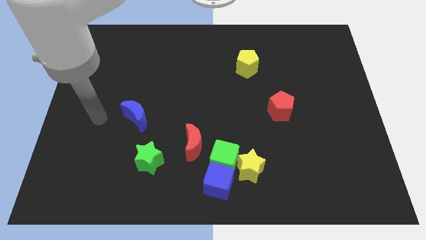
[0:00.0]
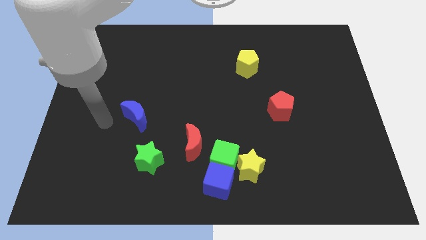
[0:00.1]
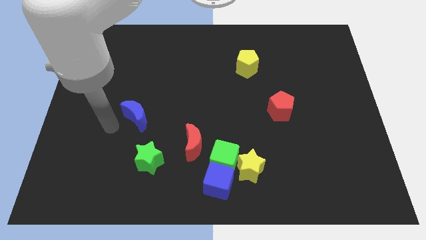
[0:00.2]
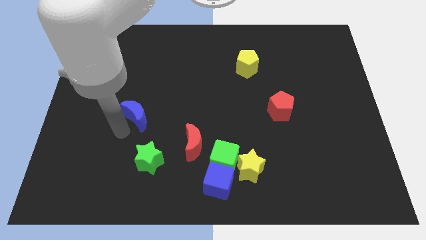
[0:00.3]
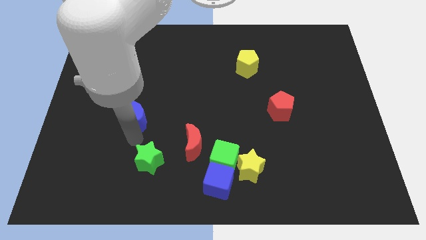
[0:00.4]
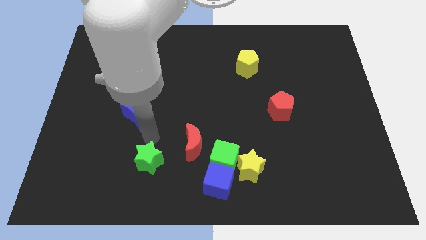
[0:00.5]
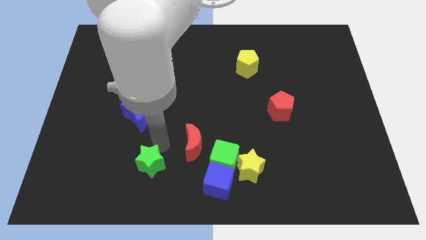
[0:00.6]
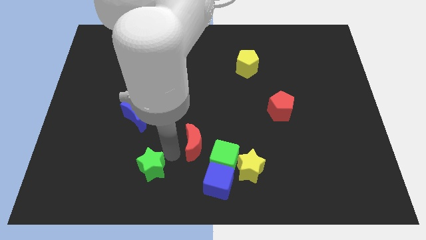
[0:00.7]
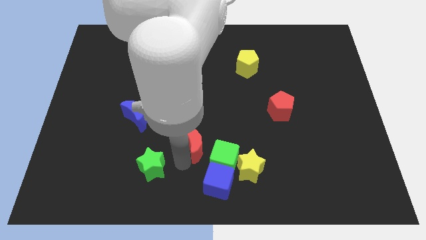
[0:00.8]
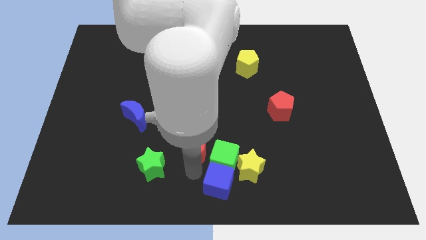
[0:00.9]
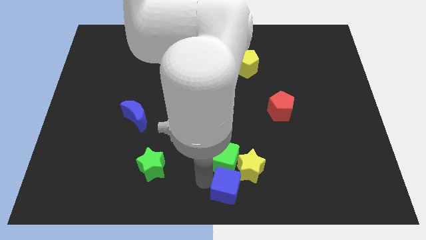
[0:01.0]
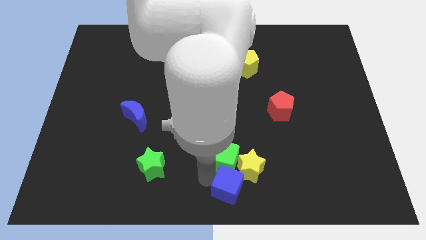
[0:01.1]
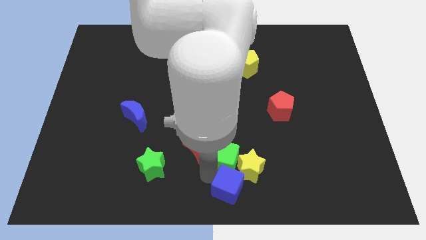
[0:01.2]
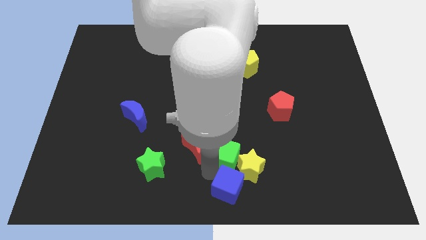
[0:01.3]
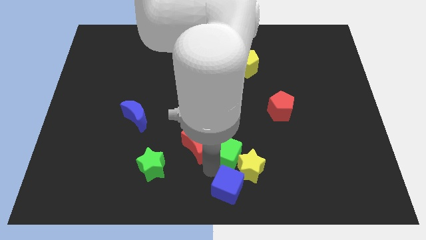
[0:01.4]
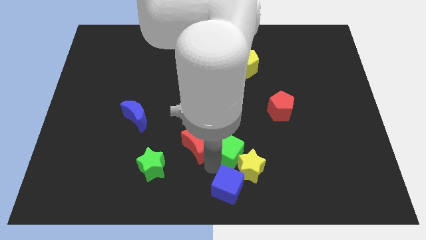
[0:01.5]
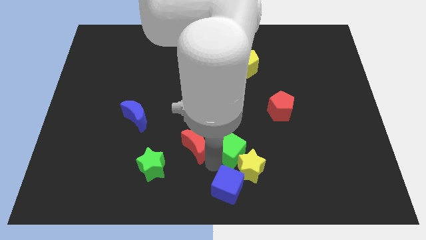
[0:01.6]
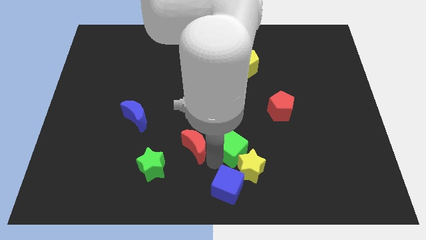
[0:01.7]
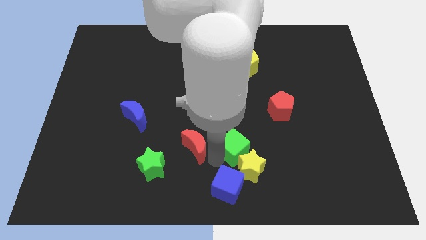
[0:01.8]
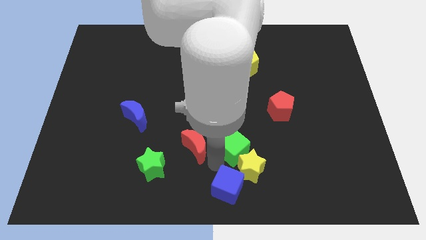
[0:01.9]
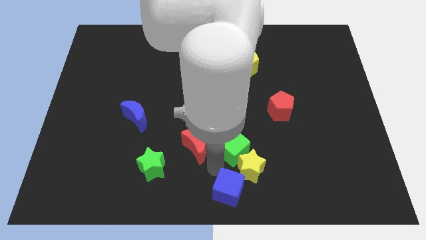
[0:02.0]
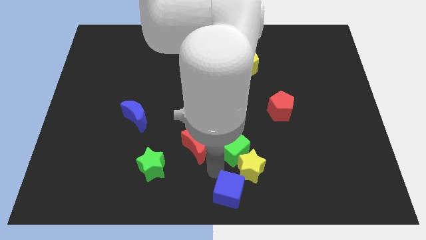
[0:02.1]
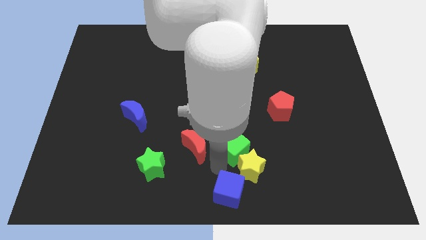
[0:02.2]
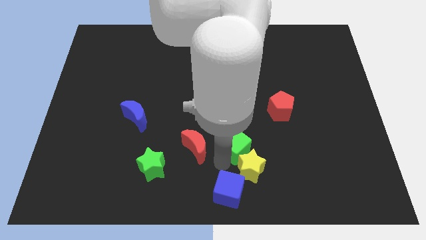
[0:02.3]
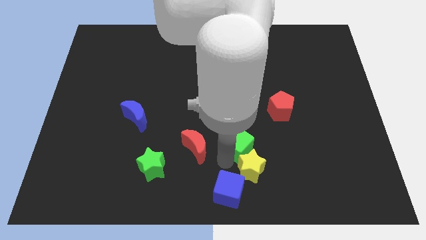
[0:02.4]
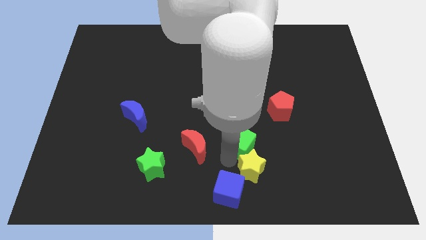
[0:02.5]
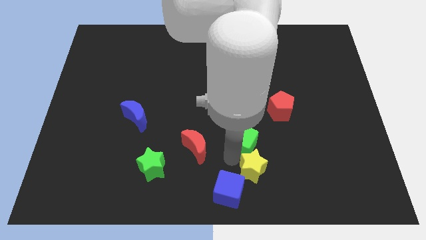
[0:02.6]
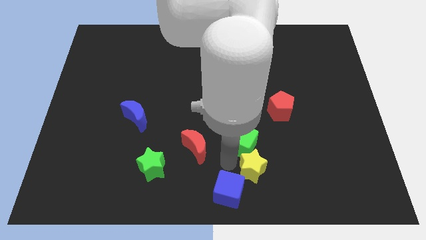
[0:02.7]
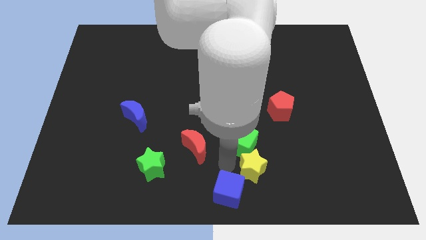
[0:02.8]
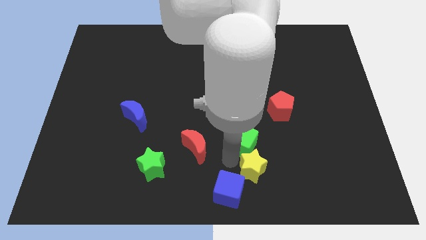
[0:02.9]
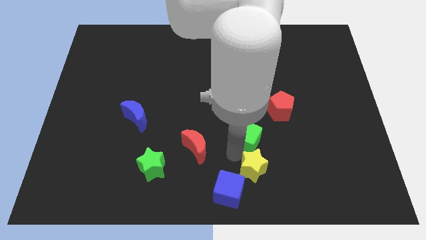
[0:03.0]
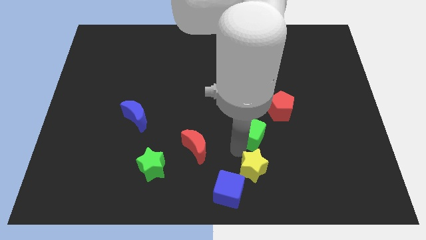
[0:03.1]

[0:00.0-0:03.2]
pull the green cube apart from the blue cube, yellow star, and red moon

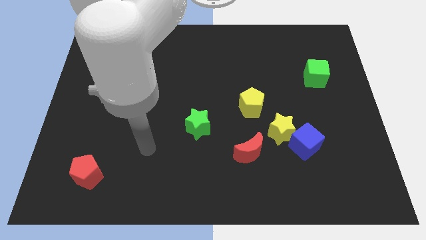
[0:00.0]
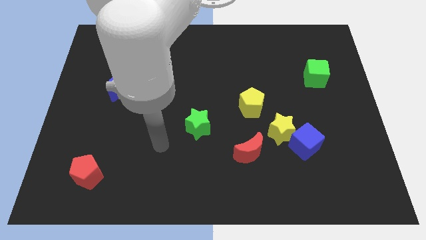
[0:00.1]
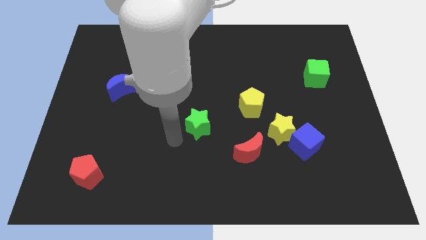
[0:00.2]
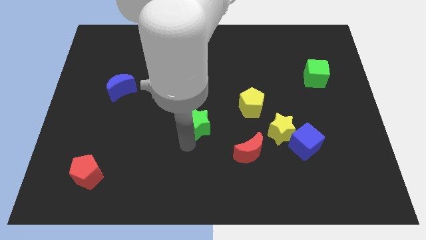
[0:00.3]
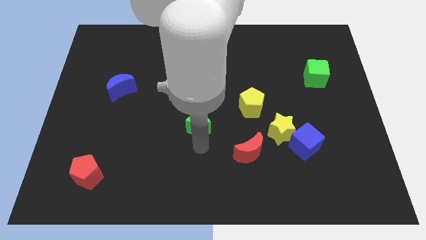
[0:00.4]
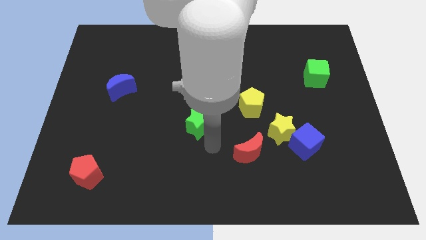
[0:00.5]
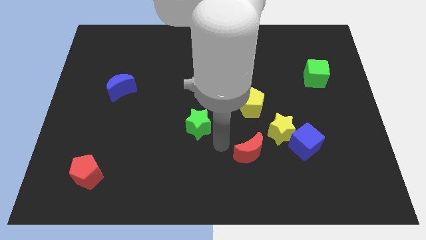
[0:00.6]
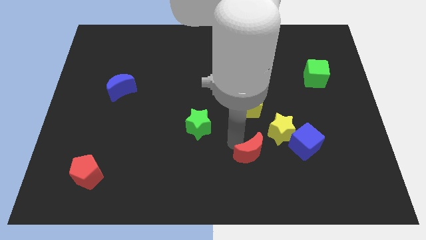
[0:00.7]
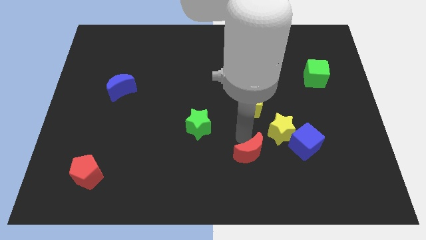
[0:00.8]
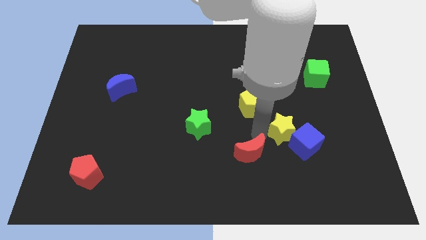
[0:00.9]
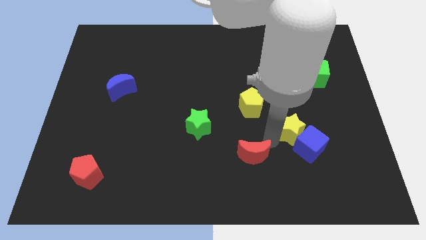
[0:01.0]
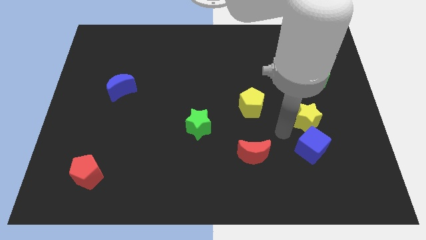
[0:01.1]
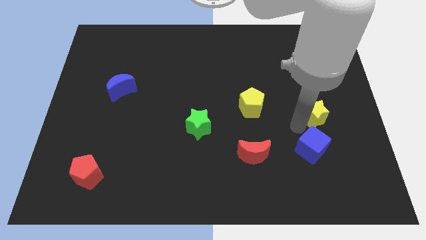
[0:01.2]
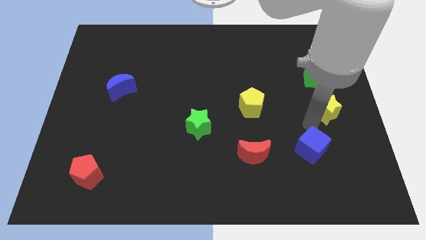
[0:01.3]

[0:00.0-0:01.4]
pull the blue cube apart from the yellow star

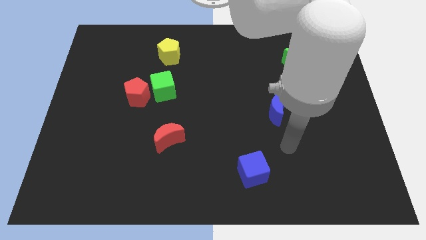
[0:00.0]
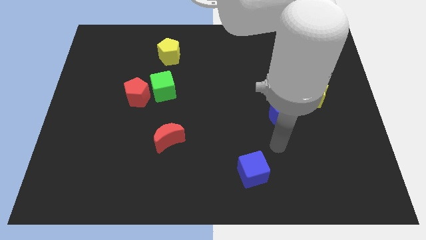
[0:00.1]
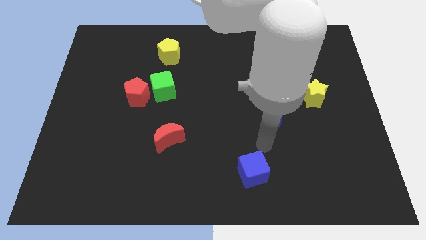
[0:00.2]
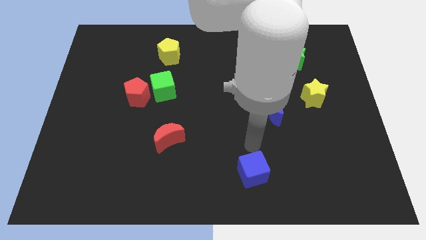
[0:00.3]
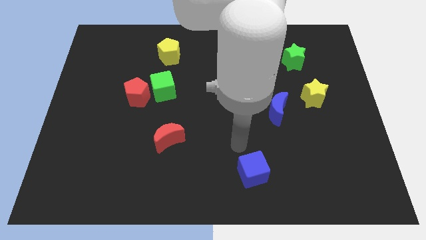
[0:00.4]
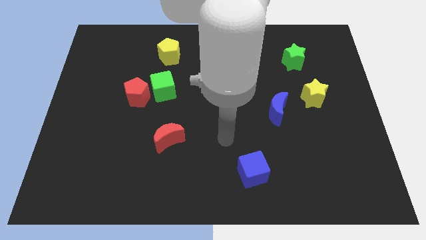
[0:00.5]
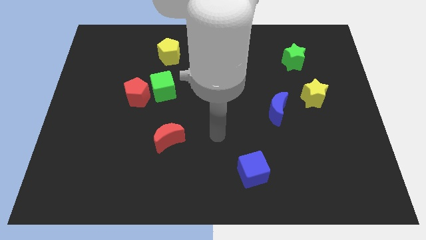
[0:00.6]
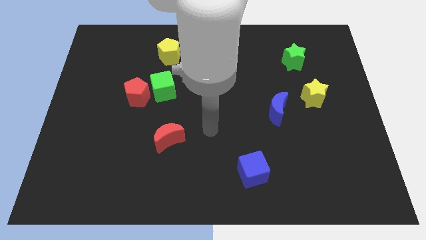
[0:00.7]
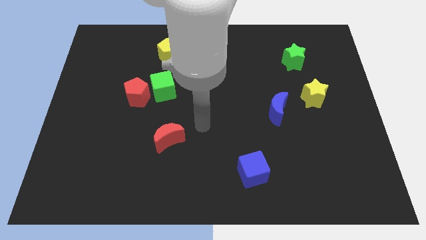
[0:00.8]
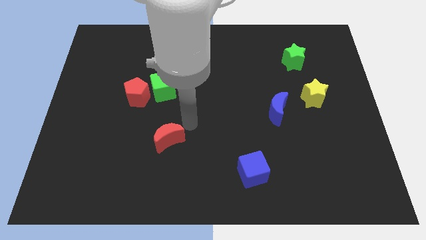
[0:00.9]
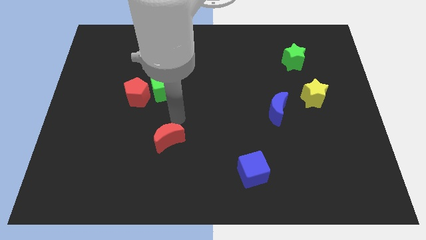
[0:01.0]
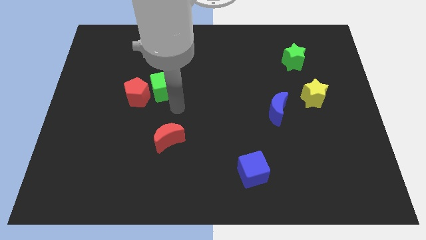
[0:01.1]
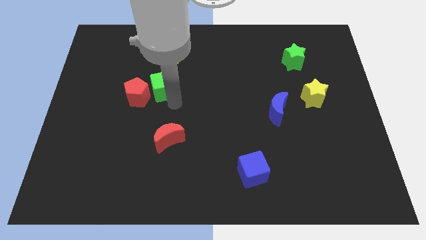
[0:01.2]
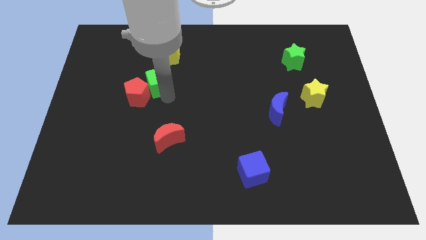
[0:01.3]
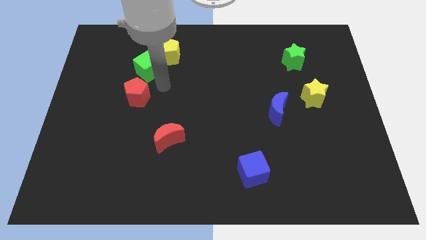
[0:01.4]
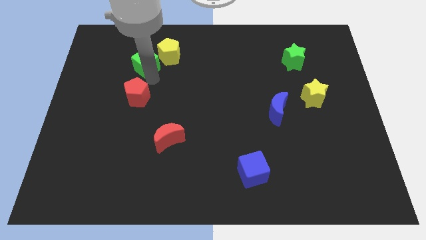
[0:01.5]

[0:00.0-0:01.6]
move the red pentagon away from the green cube

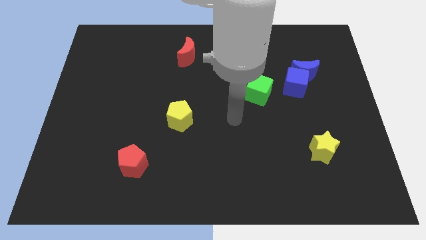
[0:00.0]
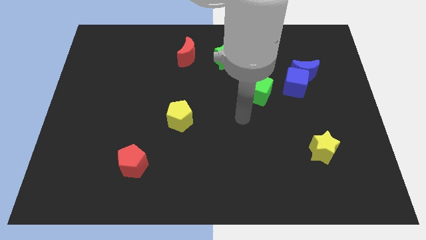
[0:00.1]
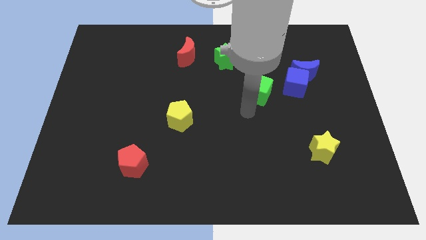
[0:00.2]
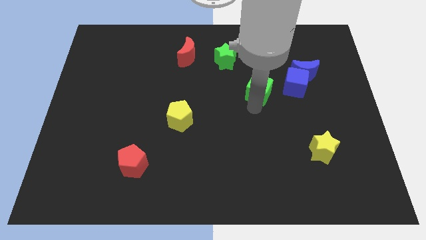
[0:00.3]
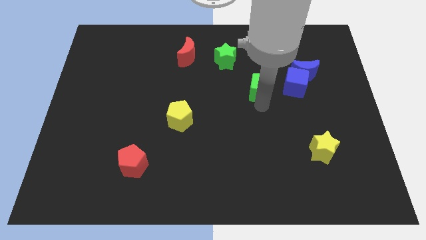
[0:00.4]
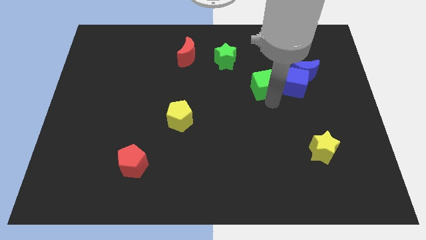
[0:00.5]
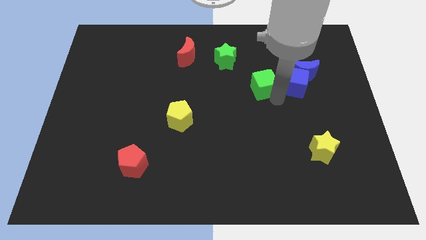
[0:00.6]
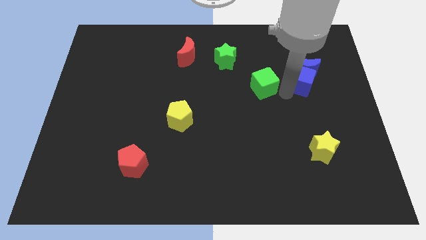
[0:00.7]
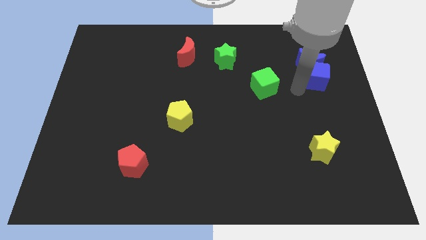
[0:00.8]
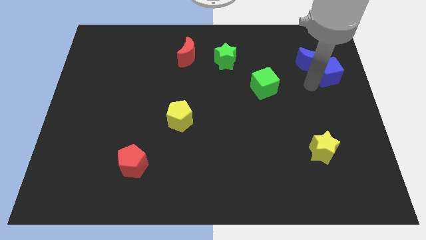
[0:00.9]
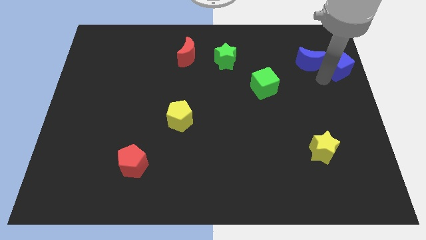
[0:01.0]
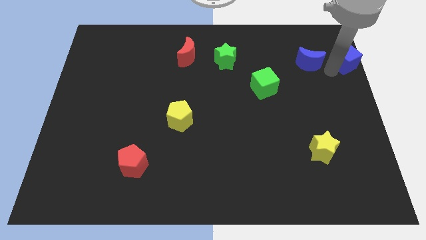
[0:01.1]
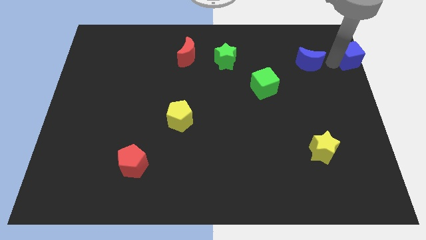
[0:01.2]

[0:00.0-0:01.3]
pull the blue moon apart from the blue cube

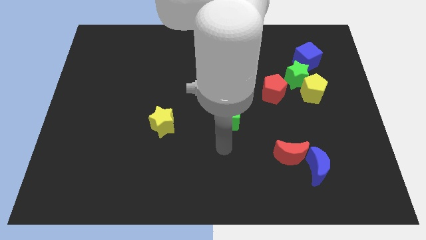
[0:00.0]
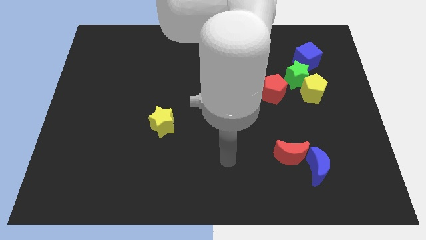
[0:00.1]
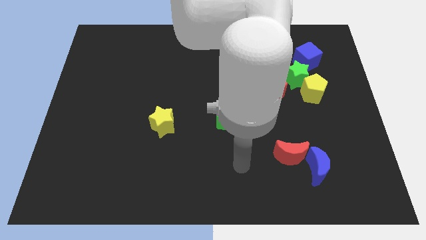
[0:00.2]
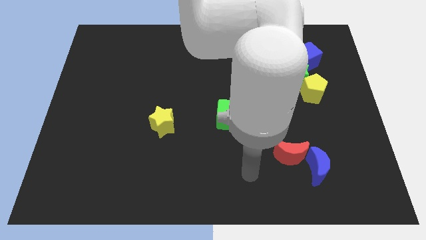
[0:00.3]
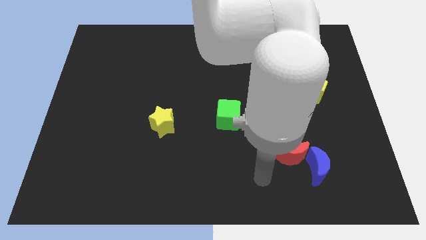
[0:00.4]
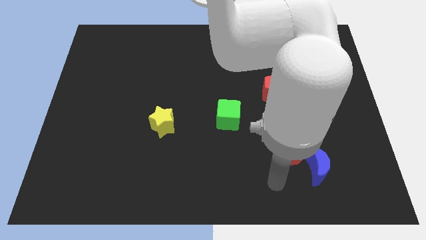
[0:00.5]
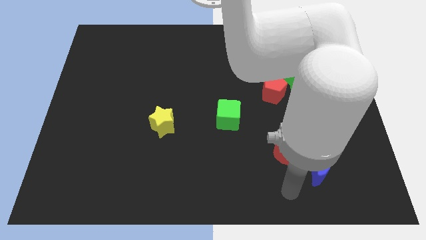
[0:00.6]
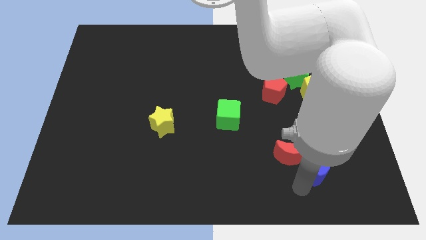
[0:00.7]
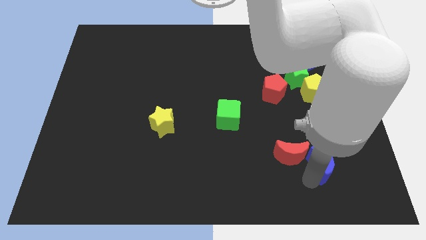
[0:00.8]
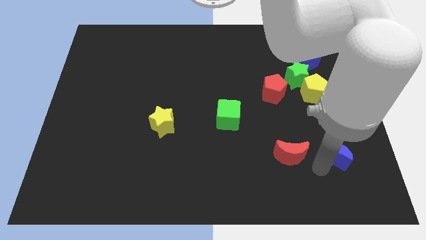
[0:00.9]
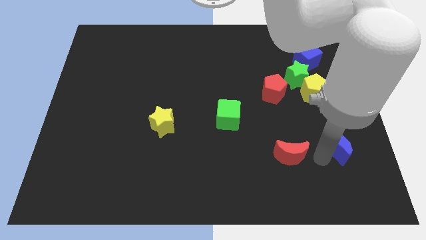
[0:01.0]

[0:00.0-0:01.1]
pull the red moon apart from the blue moon

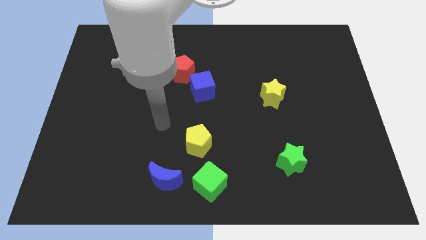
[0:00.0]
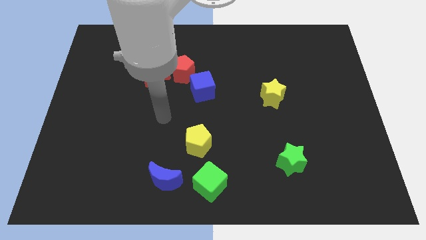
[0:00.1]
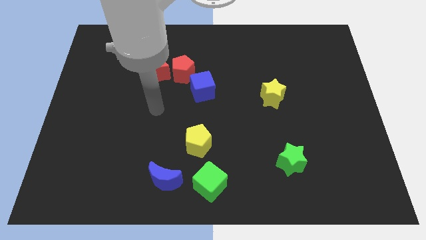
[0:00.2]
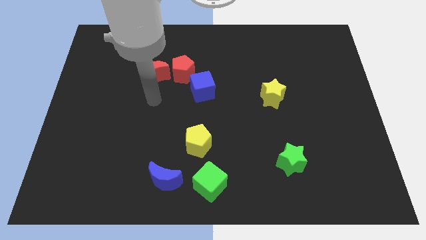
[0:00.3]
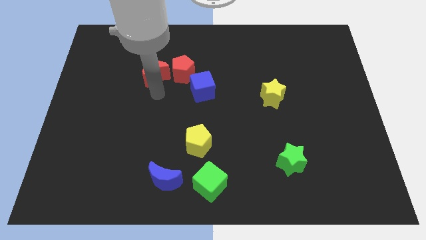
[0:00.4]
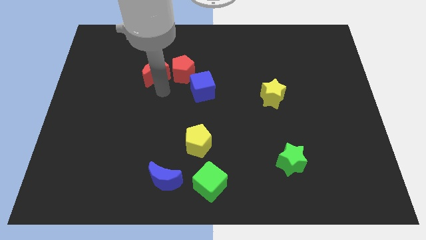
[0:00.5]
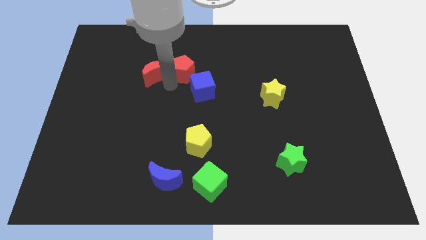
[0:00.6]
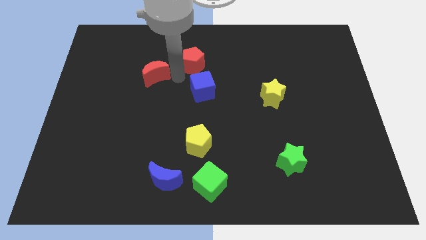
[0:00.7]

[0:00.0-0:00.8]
separate the red moon from the red pentagon
